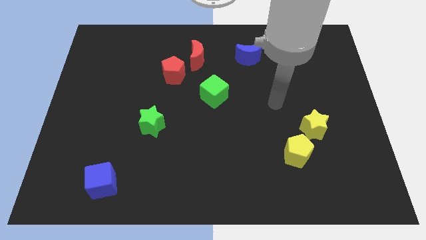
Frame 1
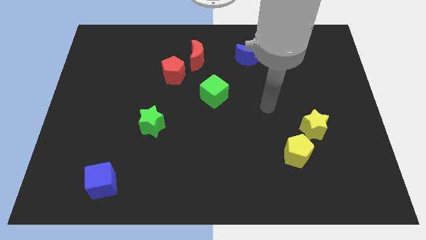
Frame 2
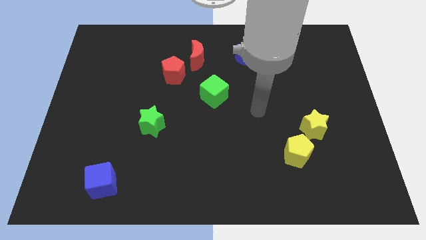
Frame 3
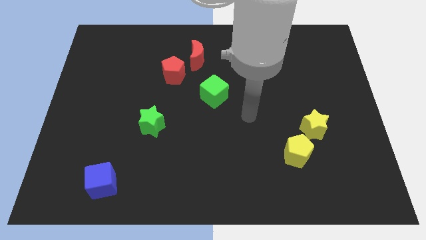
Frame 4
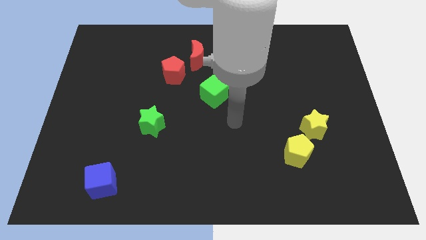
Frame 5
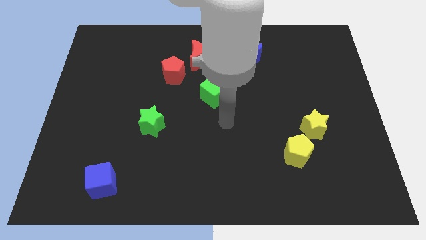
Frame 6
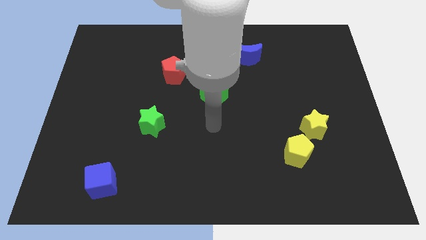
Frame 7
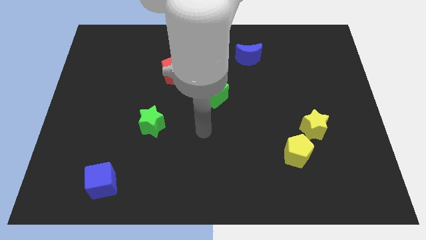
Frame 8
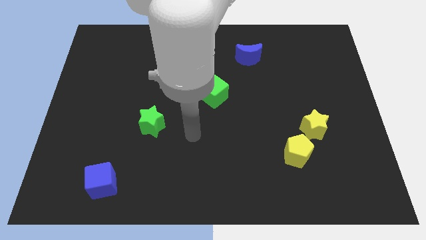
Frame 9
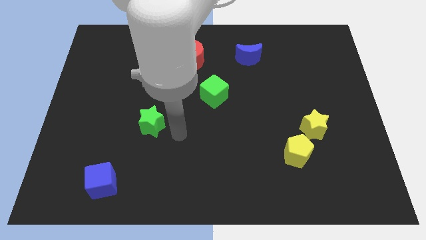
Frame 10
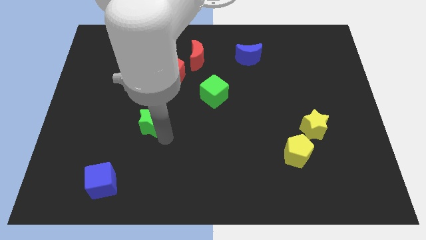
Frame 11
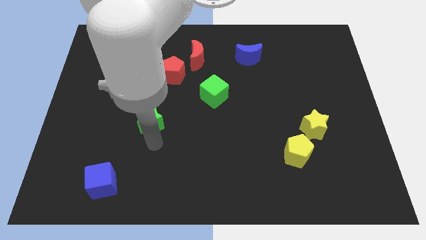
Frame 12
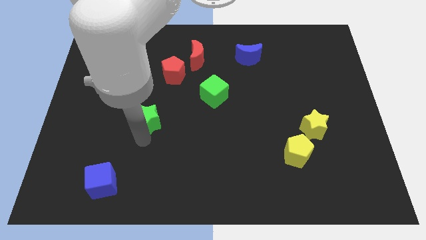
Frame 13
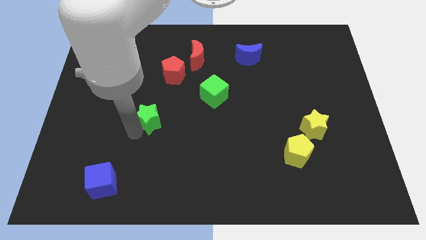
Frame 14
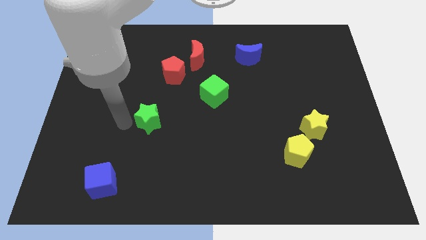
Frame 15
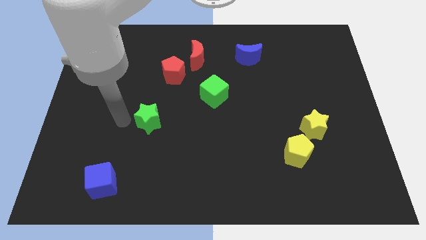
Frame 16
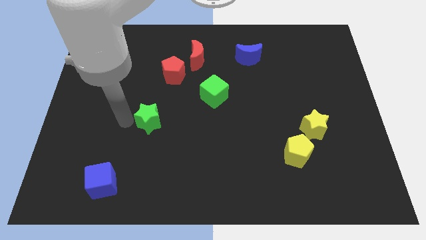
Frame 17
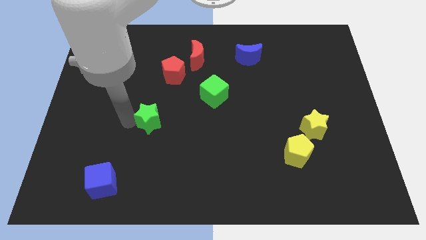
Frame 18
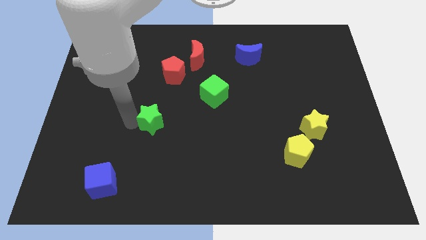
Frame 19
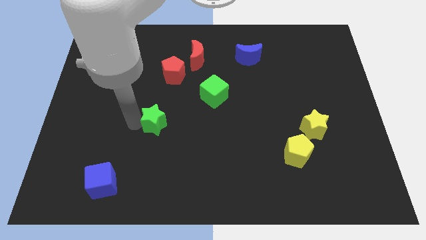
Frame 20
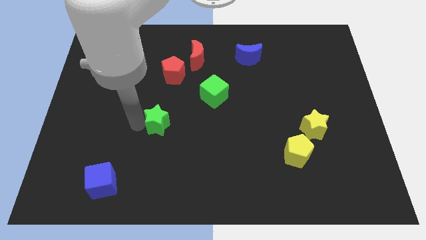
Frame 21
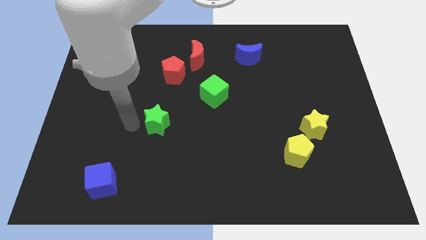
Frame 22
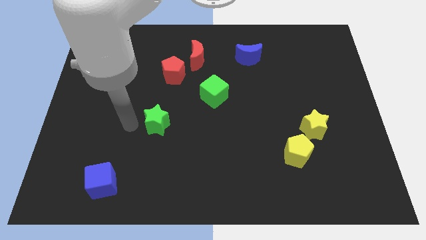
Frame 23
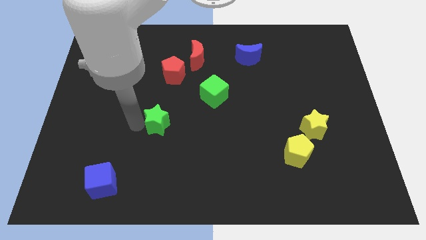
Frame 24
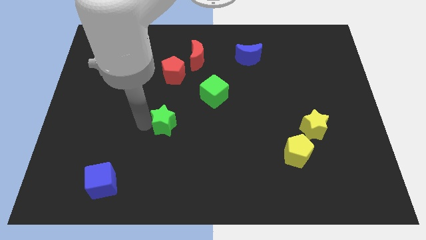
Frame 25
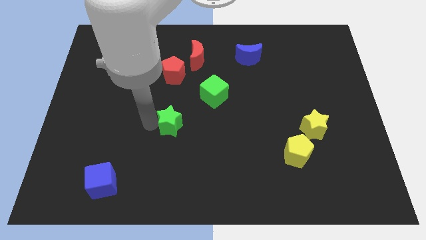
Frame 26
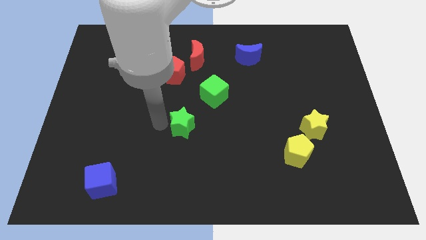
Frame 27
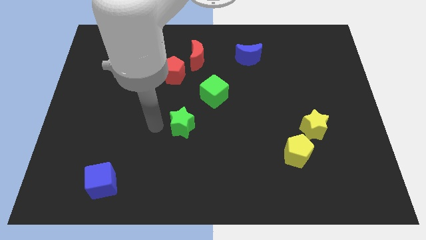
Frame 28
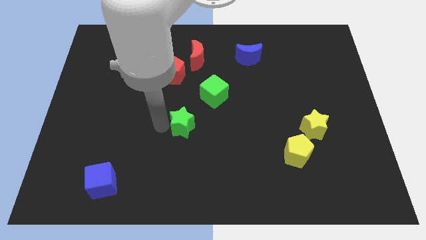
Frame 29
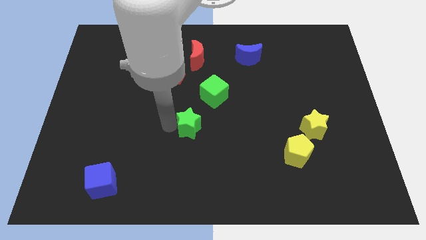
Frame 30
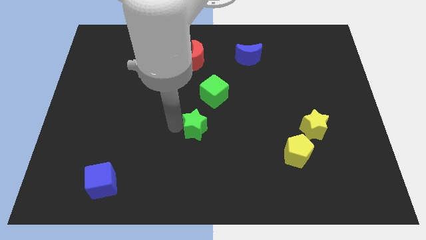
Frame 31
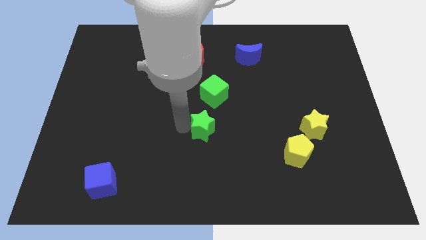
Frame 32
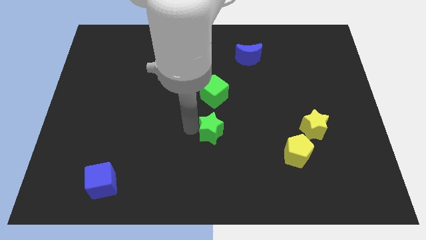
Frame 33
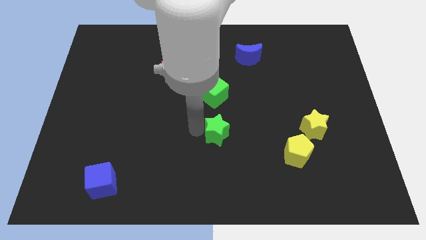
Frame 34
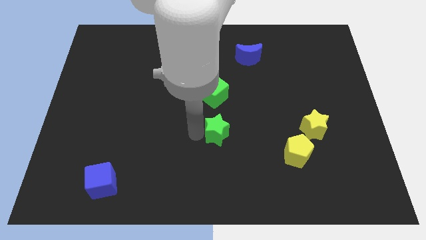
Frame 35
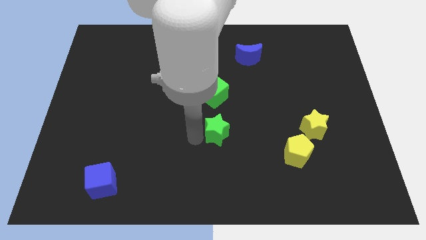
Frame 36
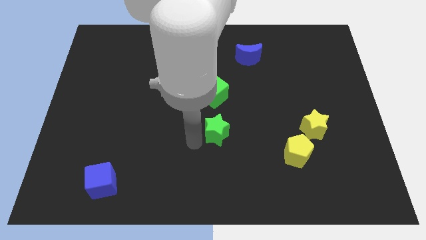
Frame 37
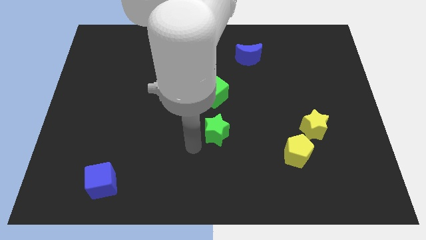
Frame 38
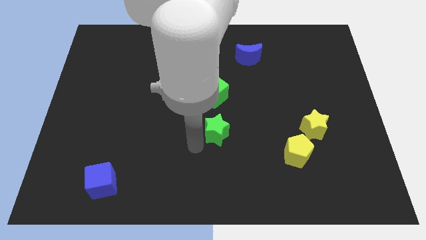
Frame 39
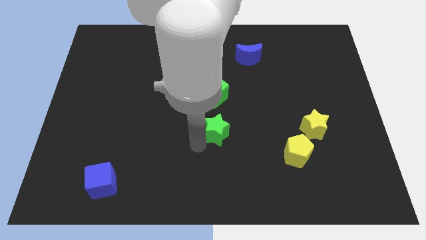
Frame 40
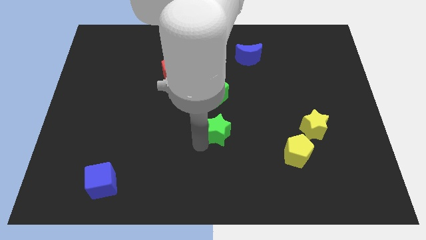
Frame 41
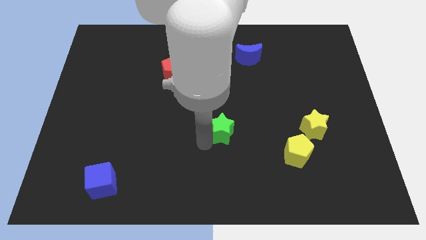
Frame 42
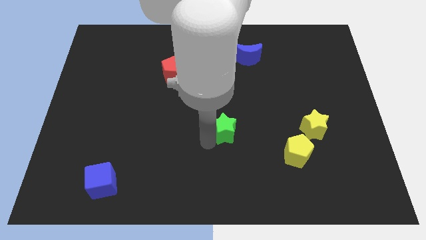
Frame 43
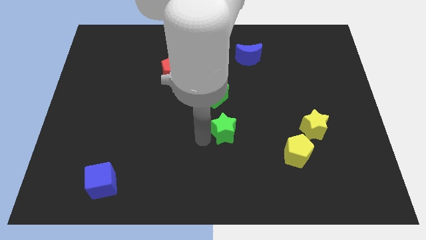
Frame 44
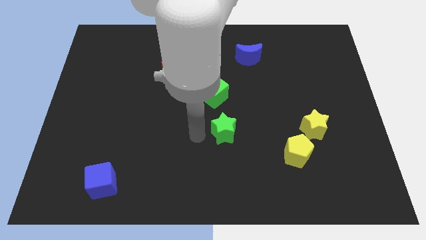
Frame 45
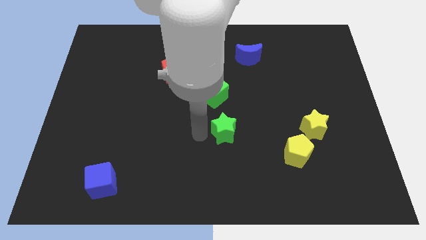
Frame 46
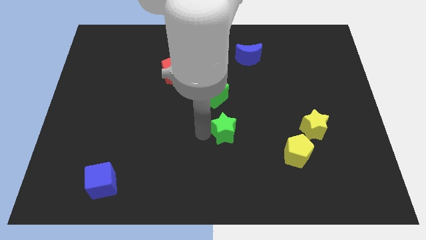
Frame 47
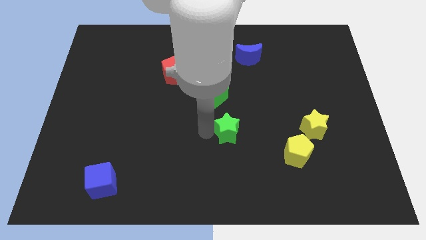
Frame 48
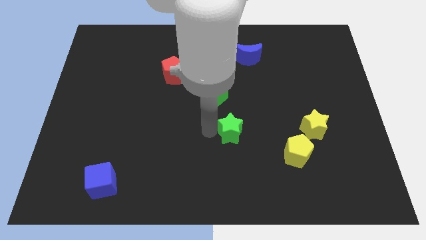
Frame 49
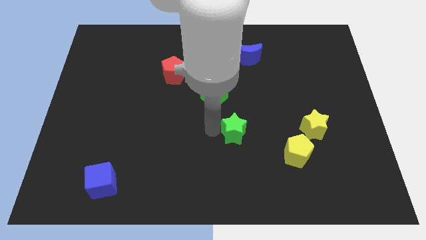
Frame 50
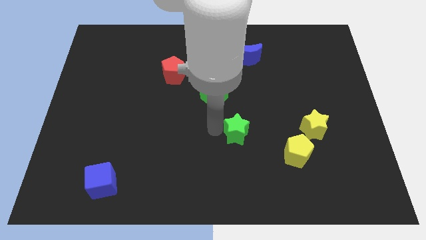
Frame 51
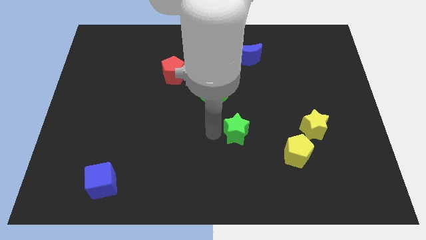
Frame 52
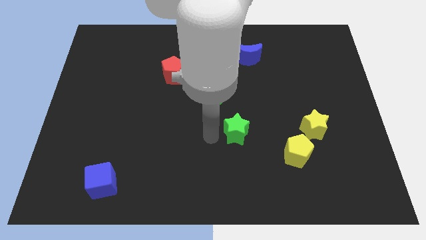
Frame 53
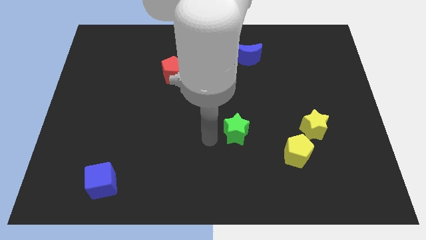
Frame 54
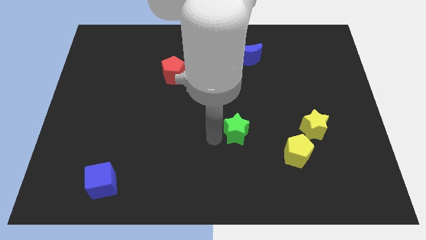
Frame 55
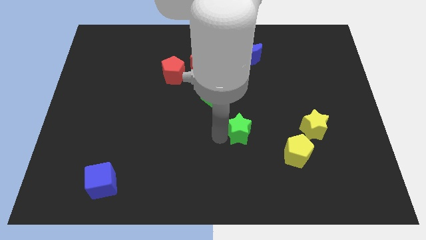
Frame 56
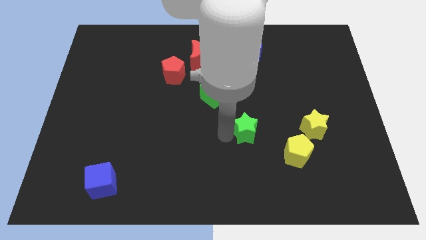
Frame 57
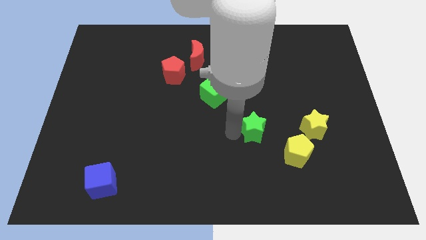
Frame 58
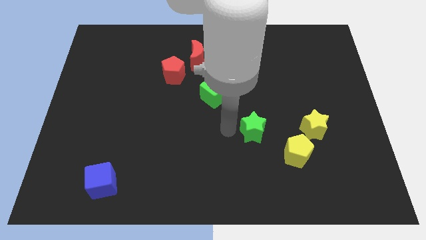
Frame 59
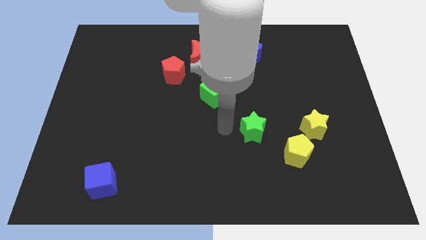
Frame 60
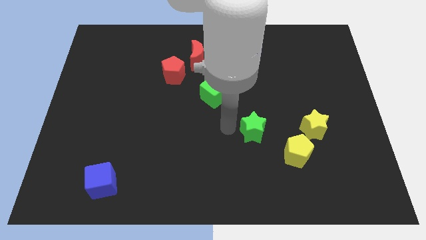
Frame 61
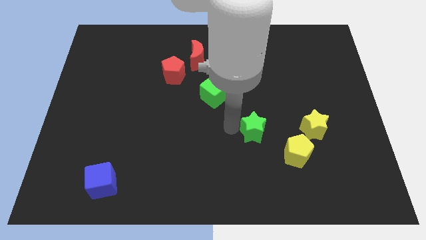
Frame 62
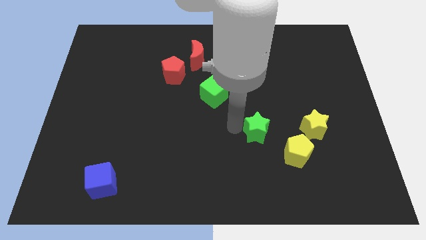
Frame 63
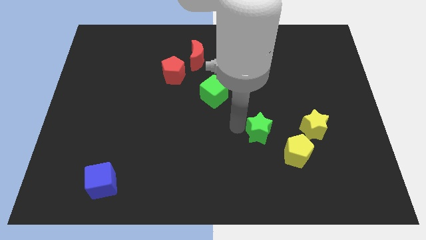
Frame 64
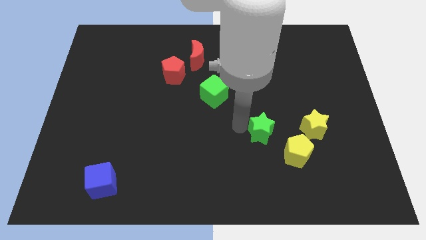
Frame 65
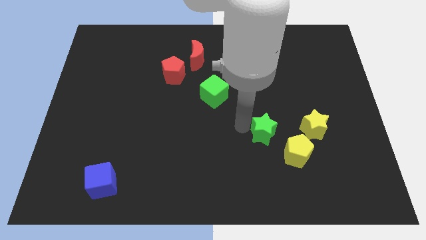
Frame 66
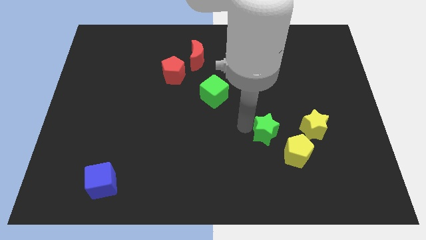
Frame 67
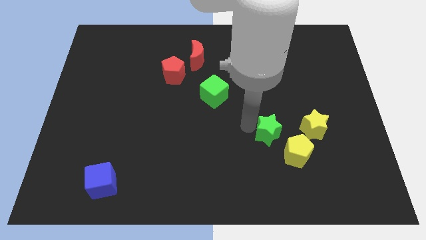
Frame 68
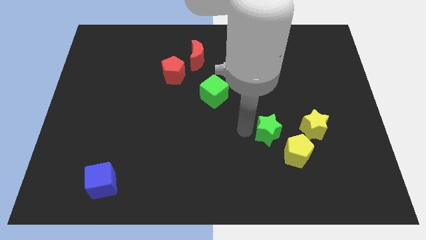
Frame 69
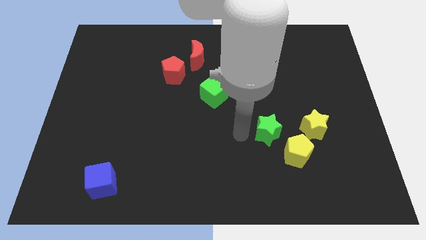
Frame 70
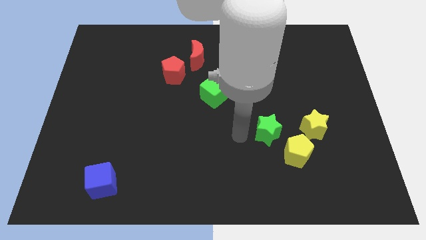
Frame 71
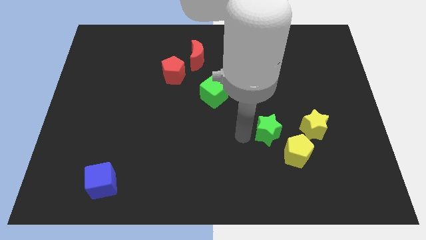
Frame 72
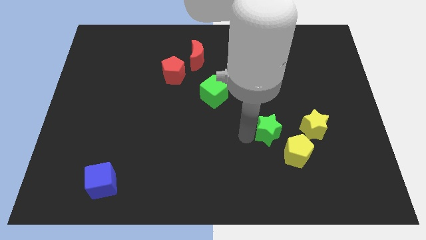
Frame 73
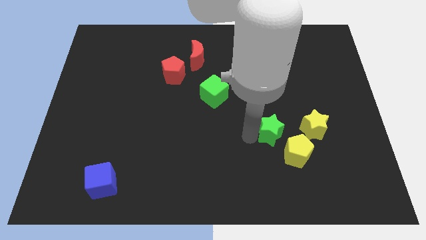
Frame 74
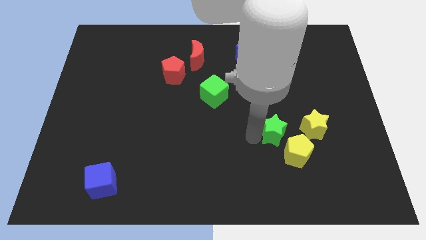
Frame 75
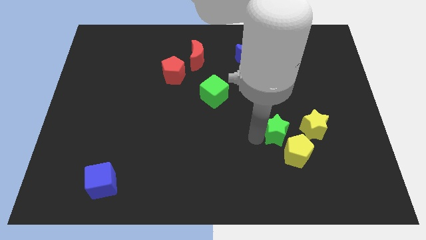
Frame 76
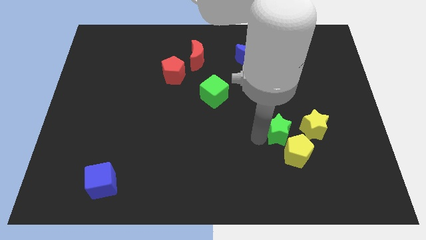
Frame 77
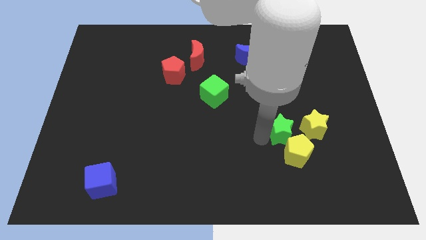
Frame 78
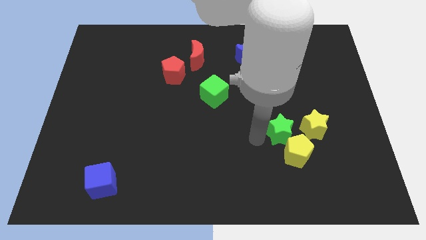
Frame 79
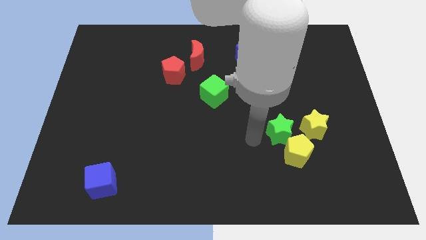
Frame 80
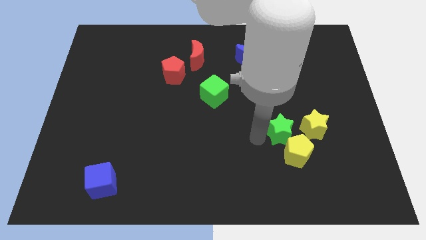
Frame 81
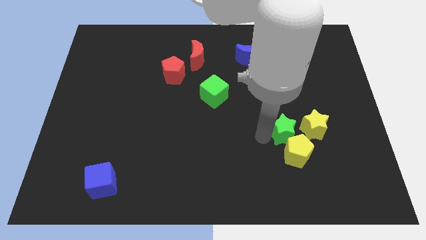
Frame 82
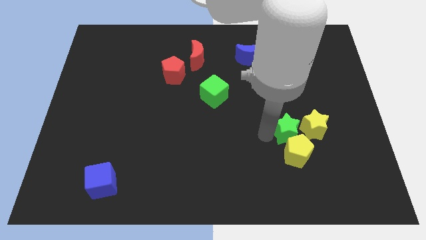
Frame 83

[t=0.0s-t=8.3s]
put the green star close to the yellow star
